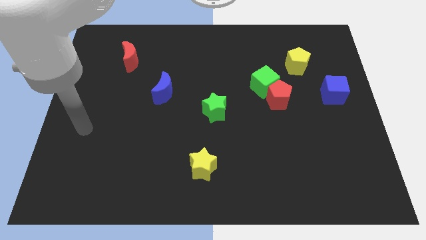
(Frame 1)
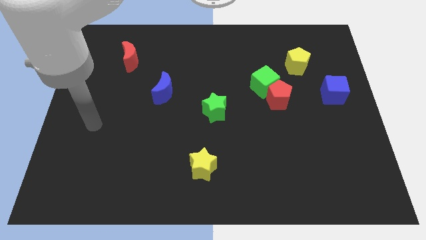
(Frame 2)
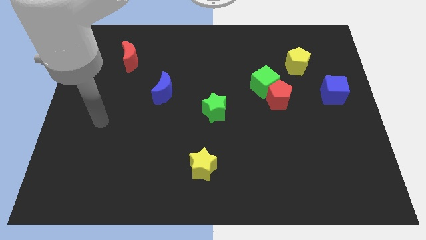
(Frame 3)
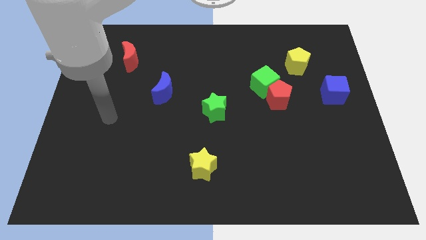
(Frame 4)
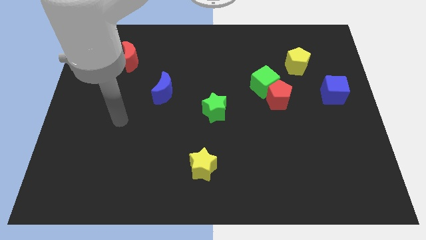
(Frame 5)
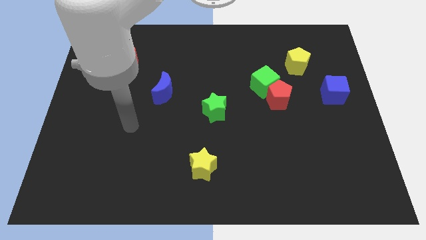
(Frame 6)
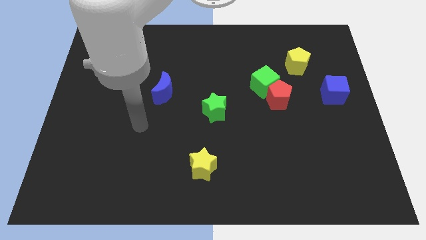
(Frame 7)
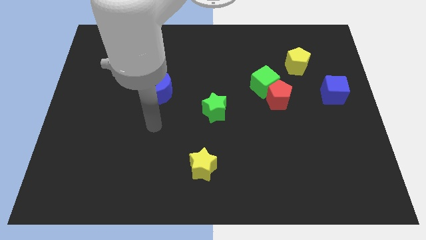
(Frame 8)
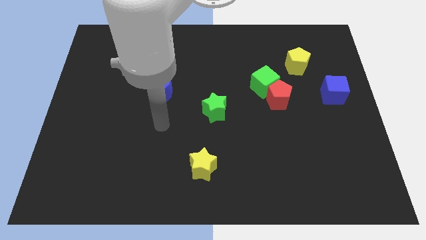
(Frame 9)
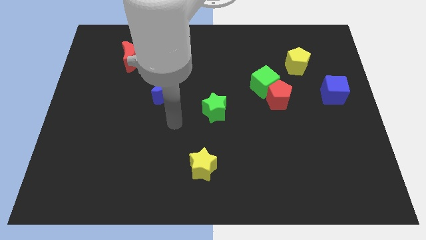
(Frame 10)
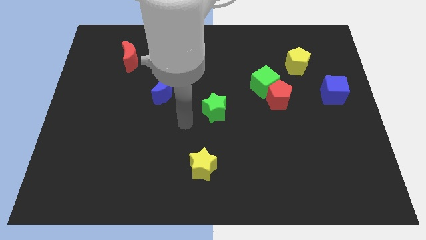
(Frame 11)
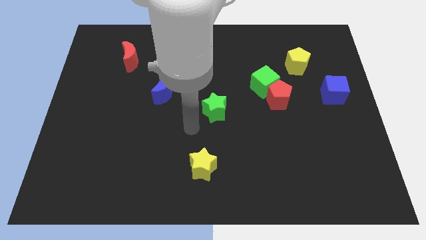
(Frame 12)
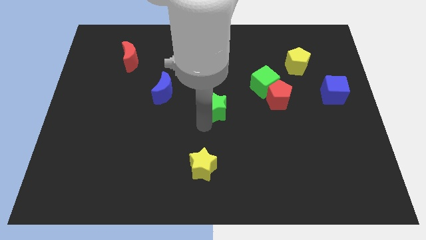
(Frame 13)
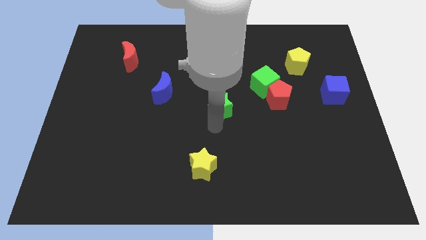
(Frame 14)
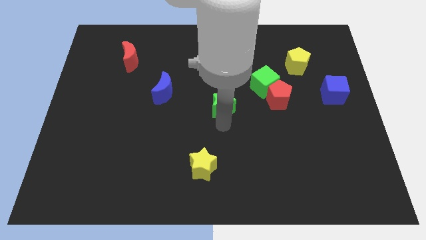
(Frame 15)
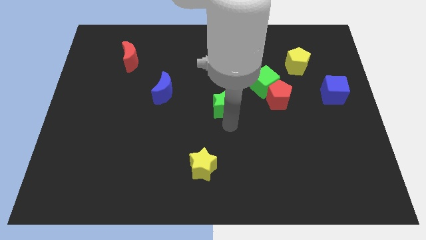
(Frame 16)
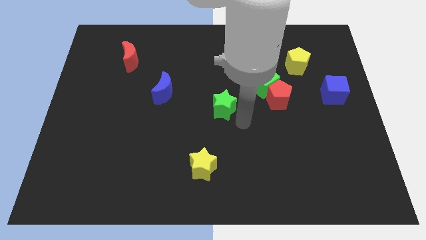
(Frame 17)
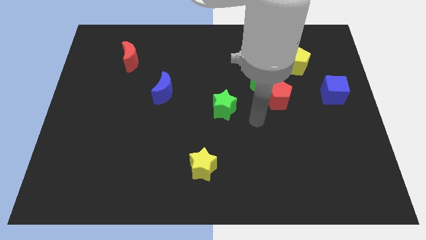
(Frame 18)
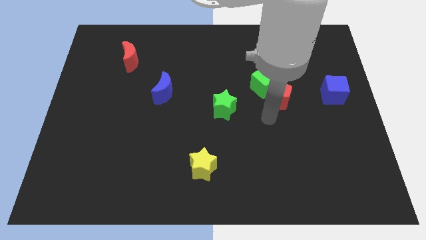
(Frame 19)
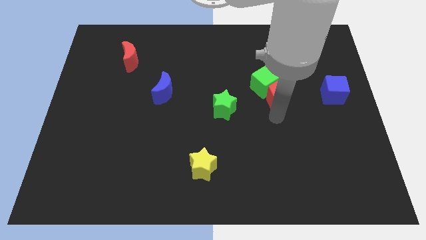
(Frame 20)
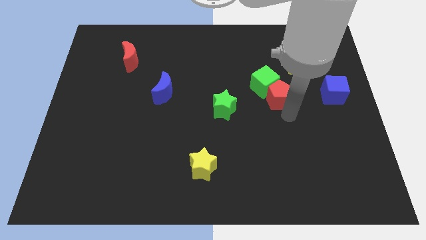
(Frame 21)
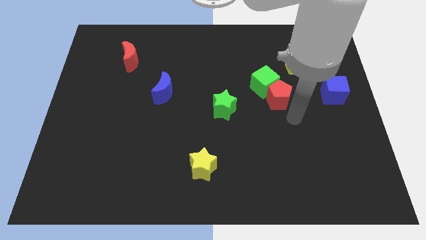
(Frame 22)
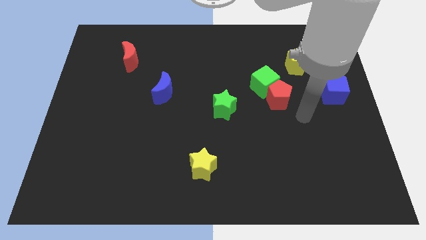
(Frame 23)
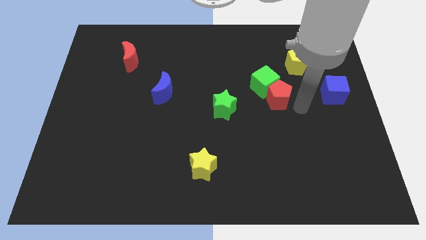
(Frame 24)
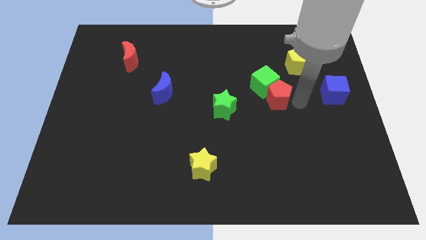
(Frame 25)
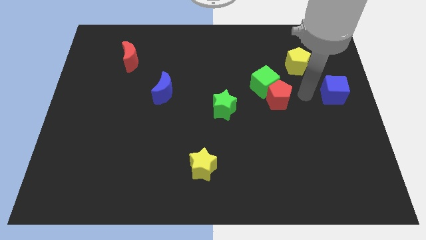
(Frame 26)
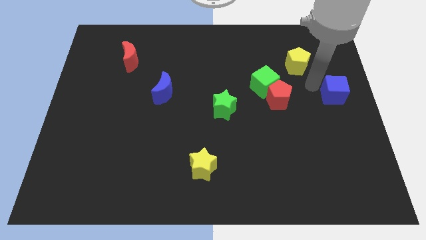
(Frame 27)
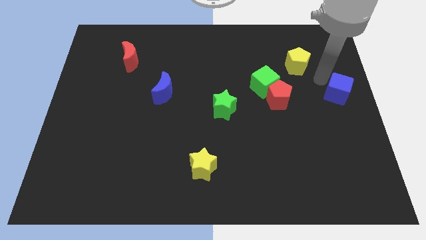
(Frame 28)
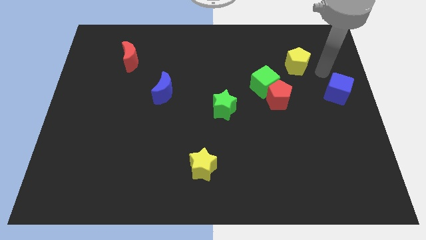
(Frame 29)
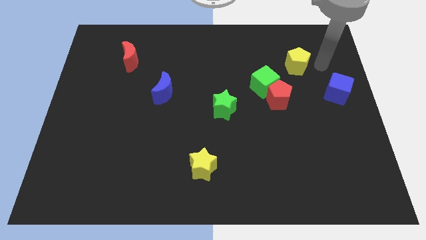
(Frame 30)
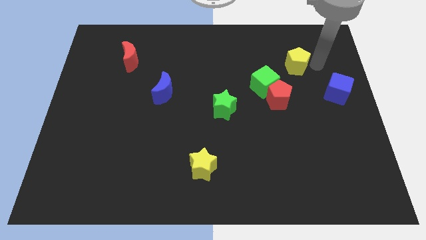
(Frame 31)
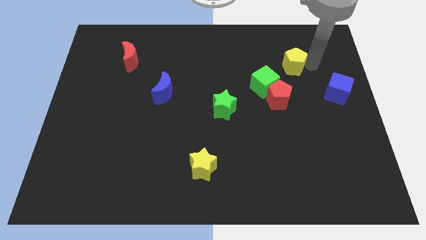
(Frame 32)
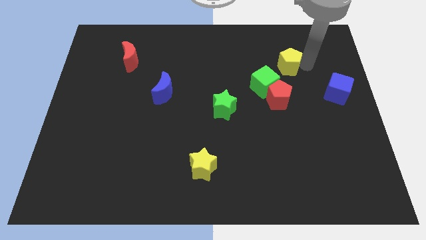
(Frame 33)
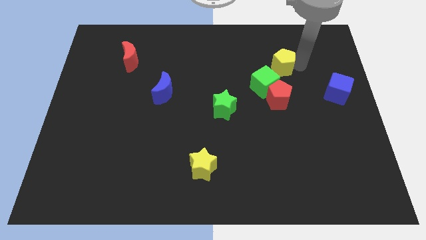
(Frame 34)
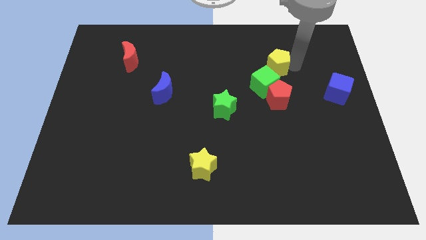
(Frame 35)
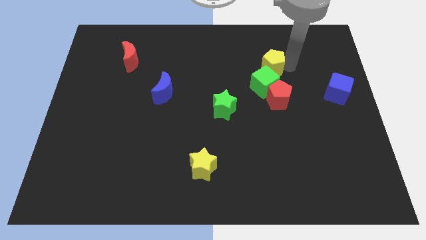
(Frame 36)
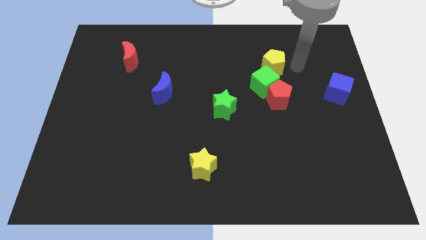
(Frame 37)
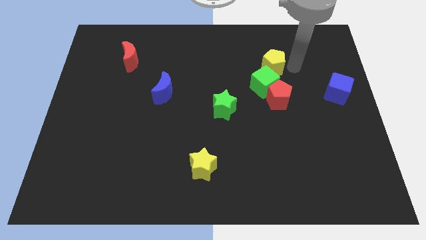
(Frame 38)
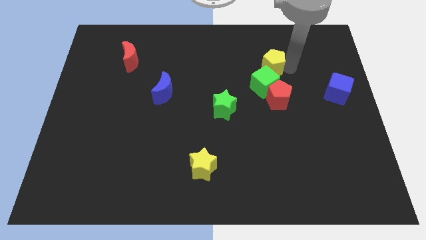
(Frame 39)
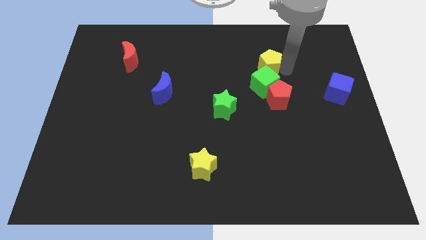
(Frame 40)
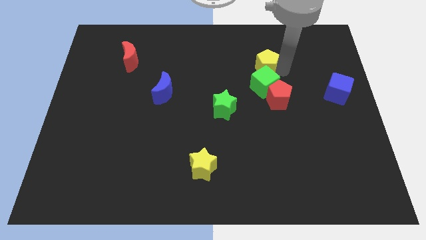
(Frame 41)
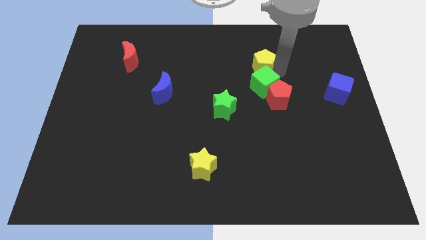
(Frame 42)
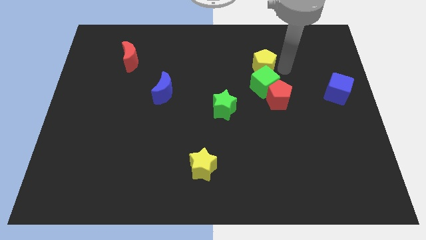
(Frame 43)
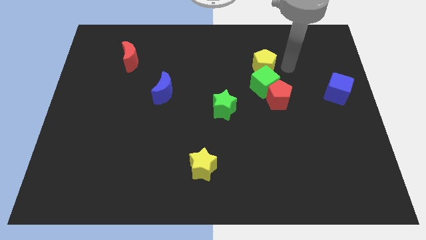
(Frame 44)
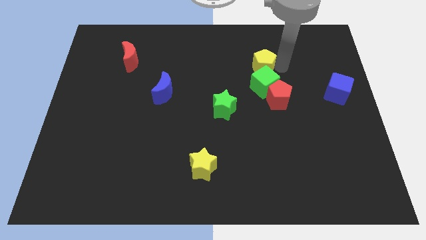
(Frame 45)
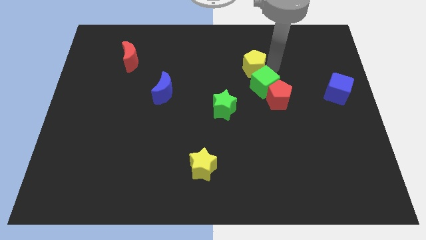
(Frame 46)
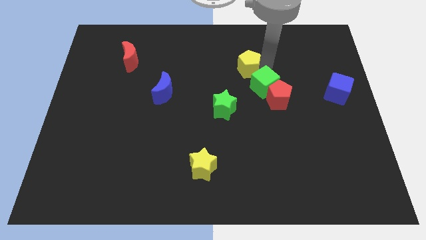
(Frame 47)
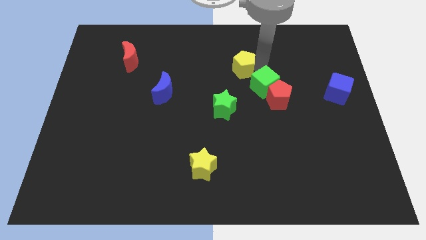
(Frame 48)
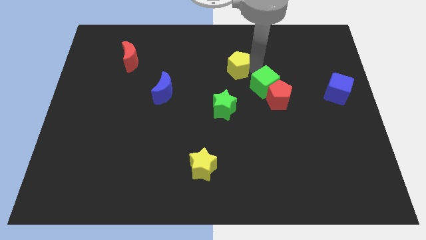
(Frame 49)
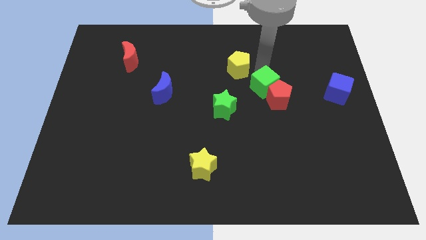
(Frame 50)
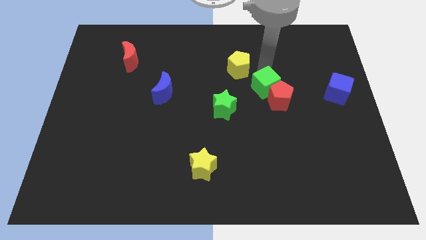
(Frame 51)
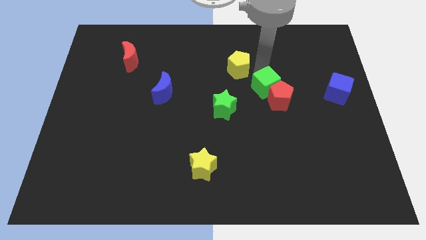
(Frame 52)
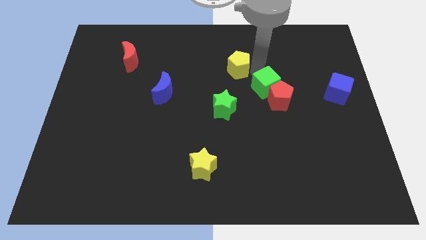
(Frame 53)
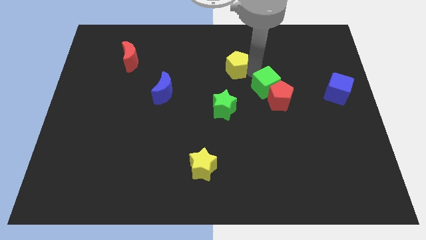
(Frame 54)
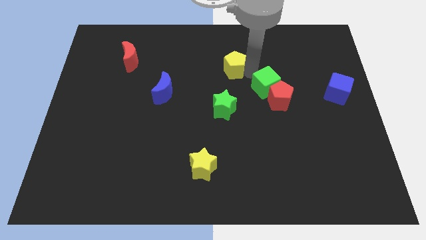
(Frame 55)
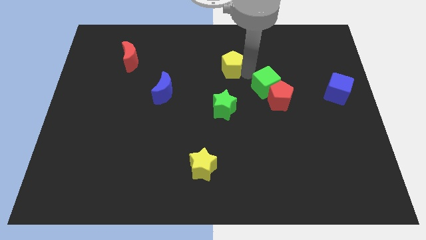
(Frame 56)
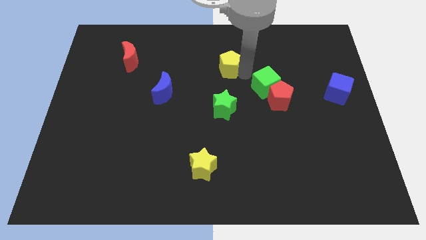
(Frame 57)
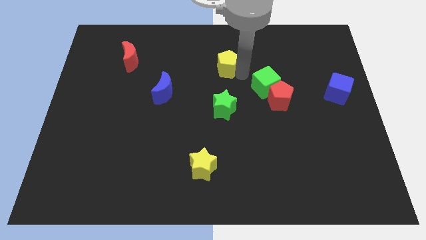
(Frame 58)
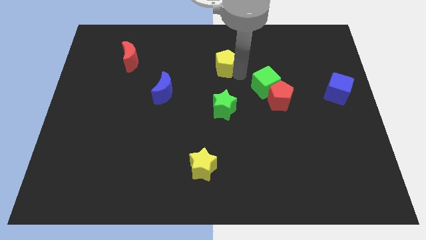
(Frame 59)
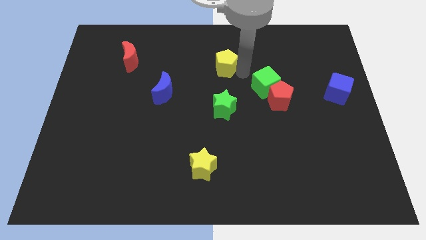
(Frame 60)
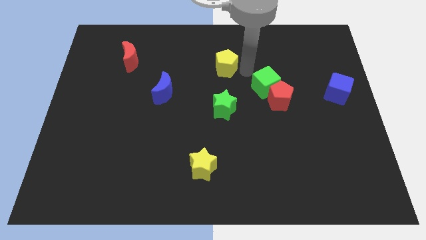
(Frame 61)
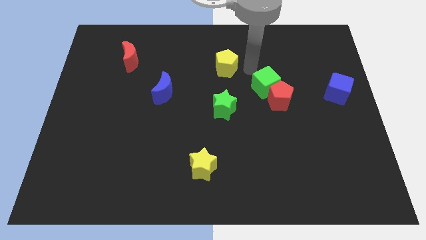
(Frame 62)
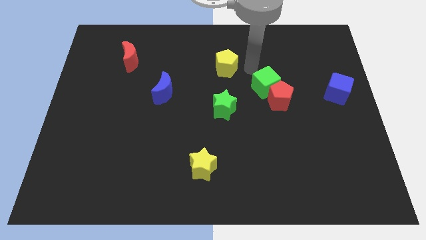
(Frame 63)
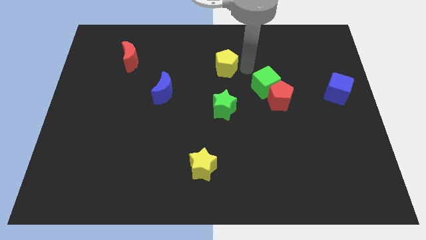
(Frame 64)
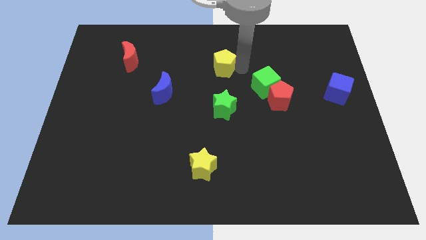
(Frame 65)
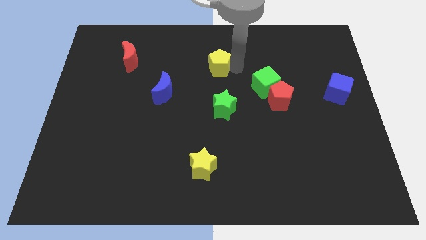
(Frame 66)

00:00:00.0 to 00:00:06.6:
push the yellow pentagon left

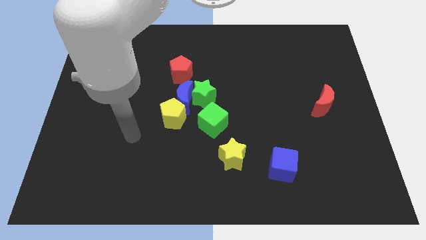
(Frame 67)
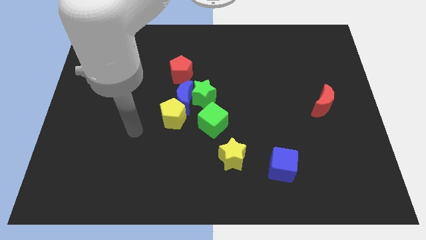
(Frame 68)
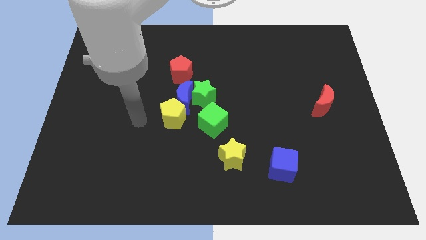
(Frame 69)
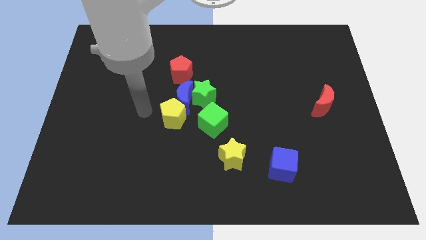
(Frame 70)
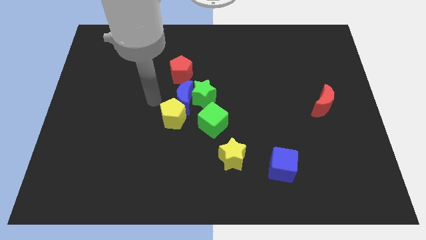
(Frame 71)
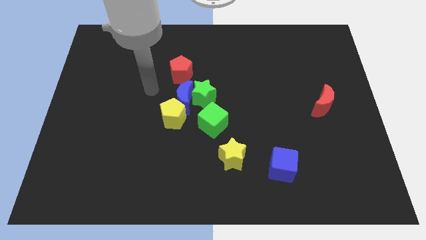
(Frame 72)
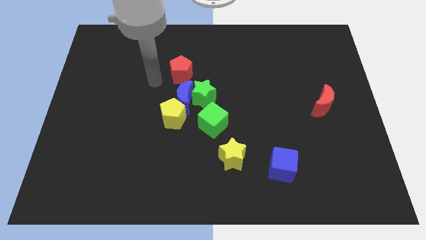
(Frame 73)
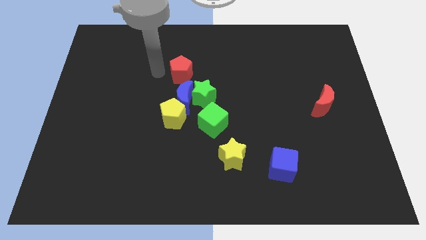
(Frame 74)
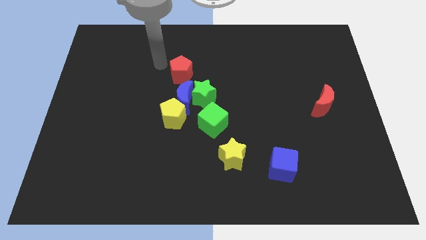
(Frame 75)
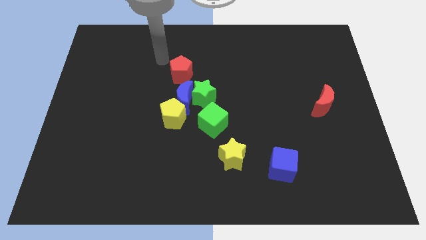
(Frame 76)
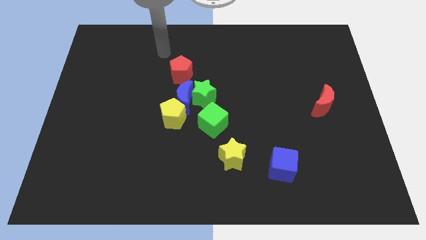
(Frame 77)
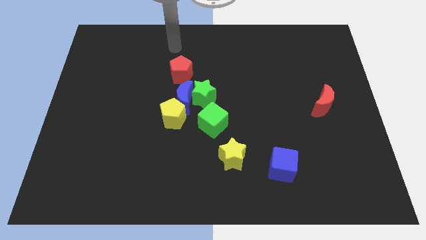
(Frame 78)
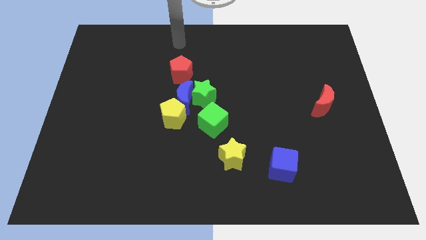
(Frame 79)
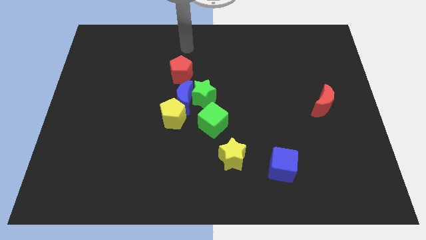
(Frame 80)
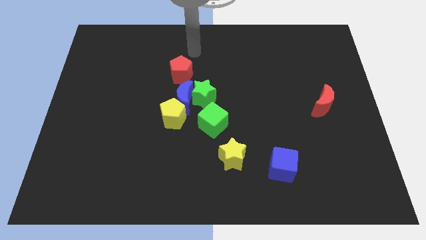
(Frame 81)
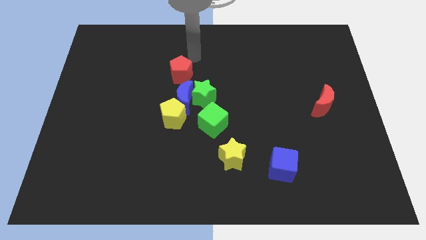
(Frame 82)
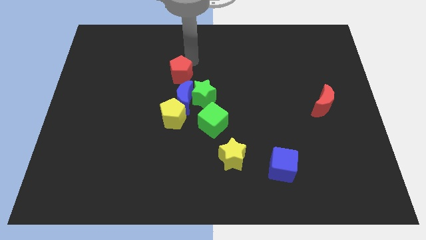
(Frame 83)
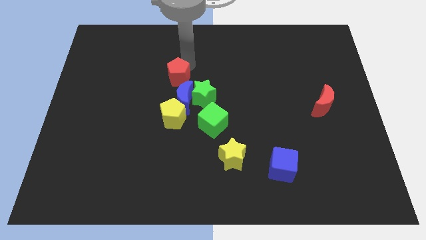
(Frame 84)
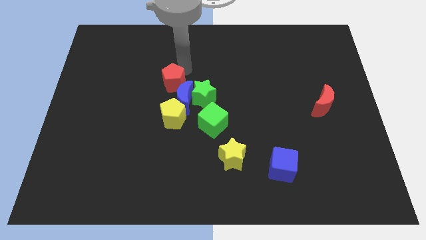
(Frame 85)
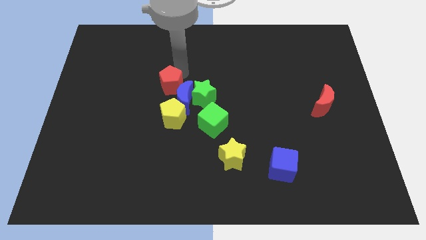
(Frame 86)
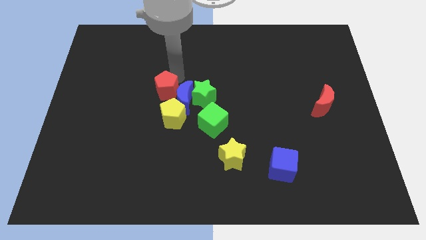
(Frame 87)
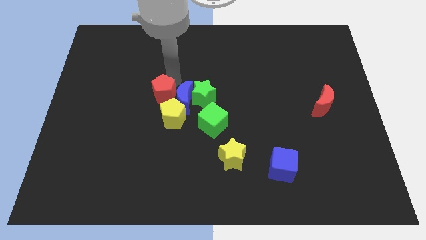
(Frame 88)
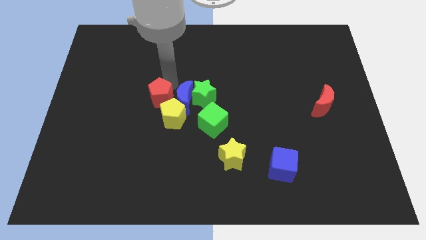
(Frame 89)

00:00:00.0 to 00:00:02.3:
slightly move the red pentagon down
